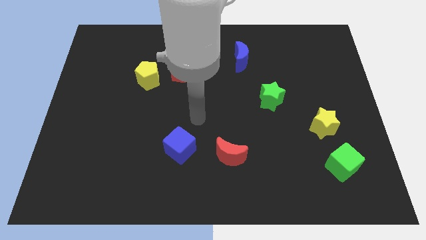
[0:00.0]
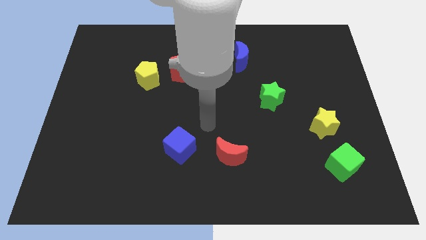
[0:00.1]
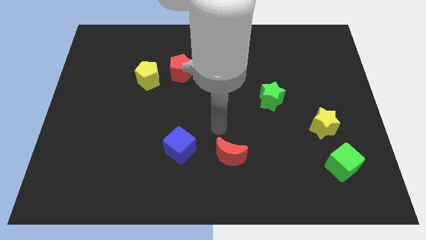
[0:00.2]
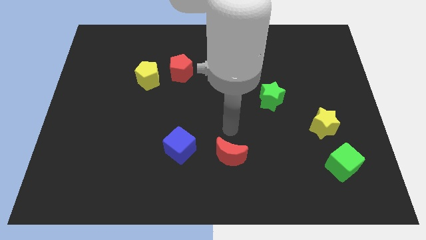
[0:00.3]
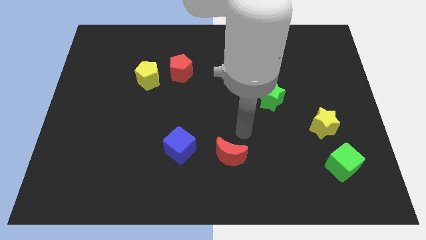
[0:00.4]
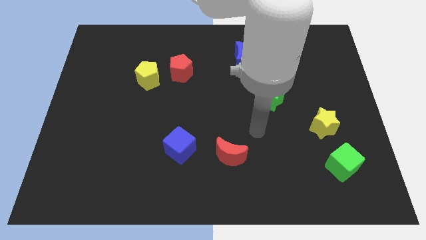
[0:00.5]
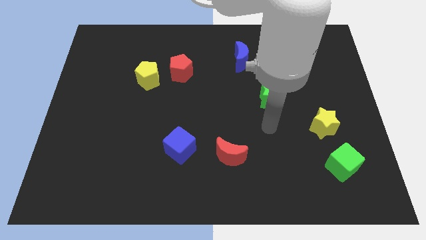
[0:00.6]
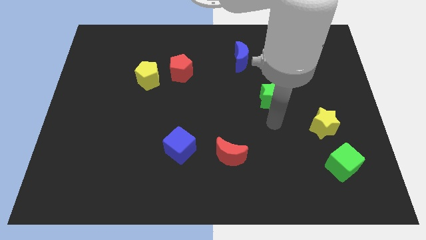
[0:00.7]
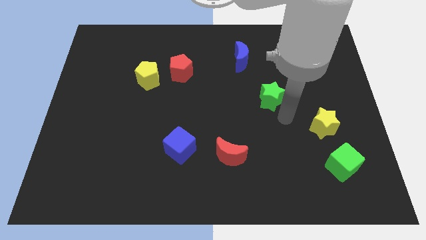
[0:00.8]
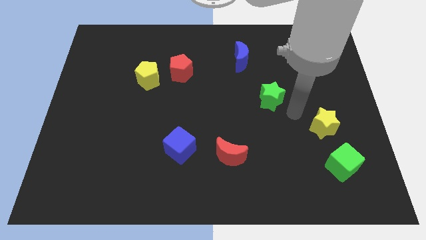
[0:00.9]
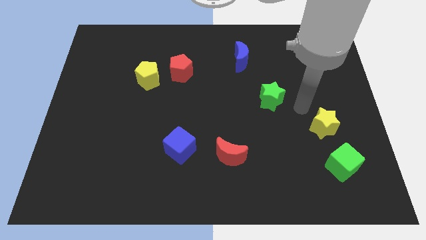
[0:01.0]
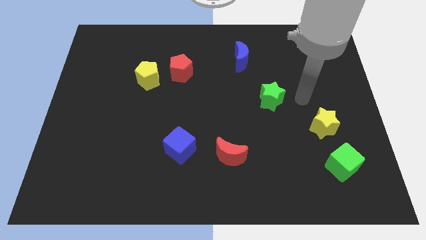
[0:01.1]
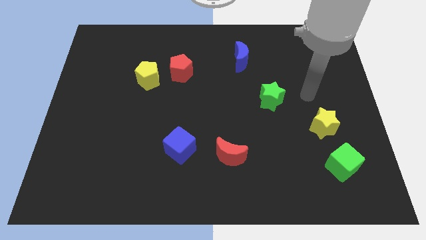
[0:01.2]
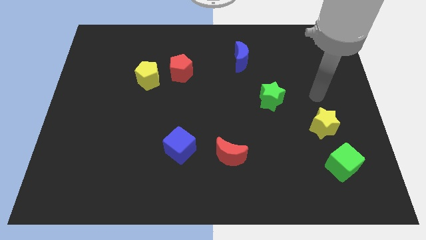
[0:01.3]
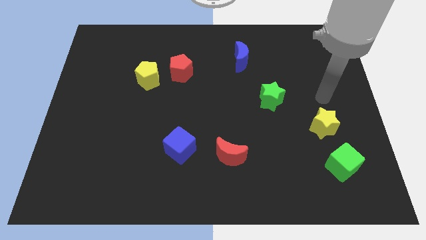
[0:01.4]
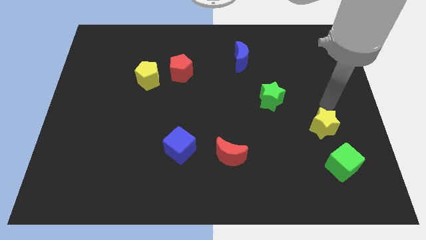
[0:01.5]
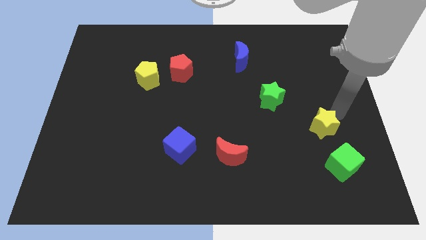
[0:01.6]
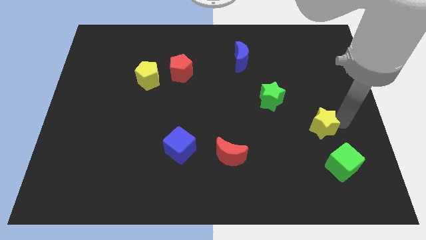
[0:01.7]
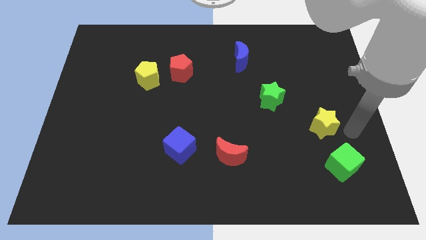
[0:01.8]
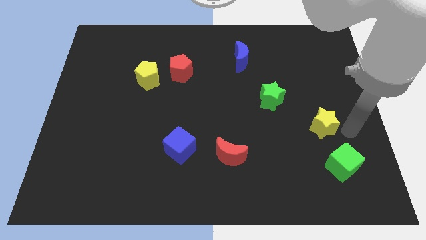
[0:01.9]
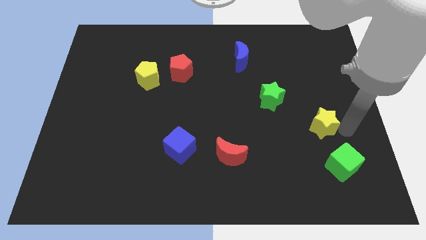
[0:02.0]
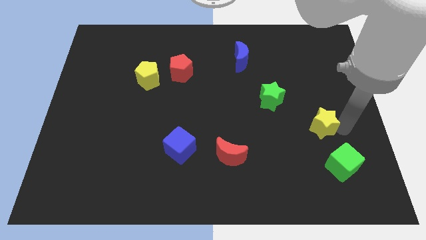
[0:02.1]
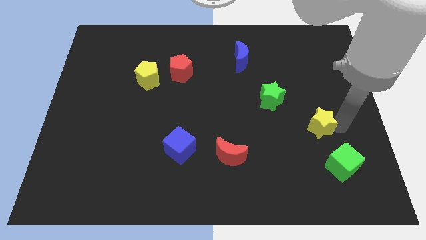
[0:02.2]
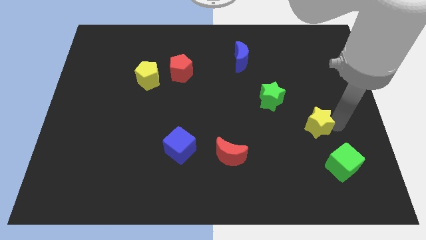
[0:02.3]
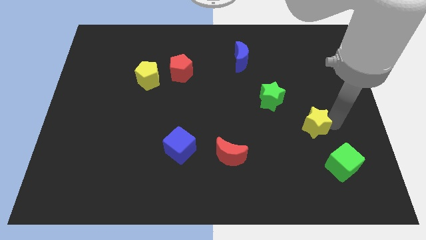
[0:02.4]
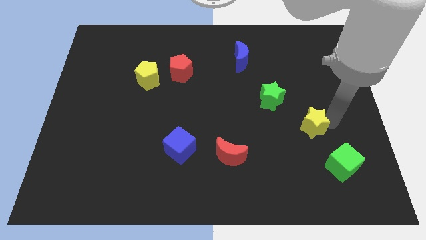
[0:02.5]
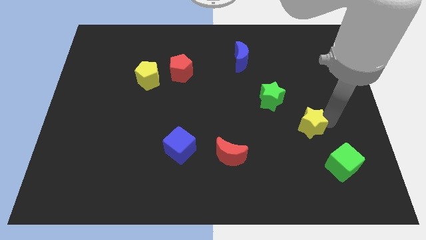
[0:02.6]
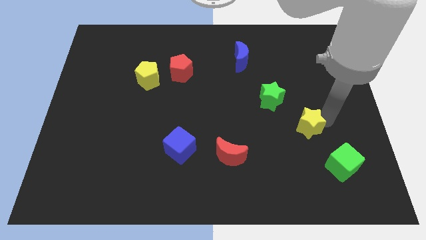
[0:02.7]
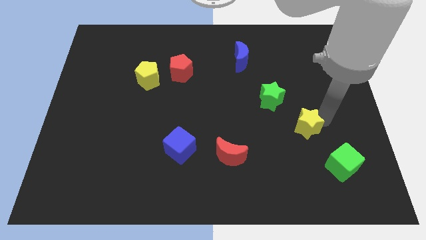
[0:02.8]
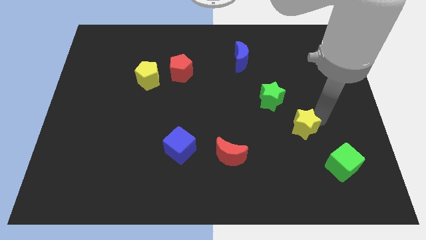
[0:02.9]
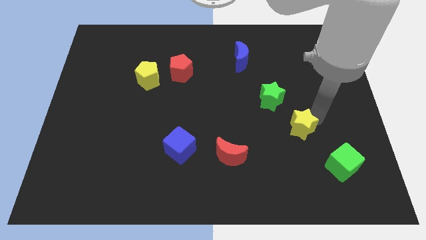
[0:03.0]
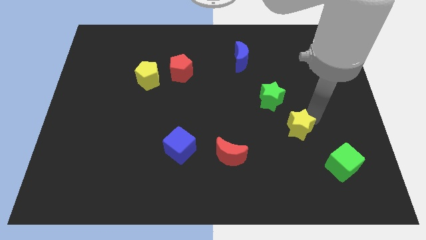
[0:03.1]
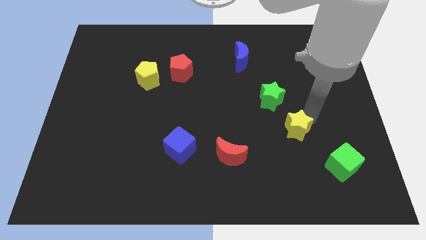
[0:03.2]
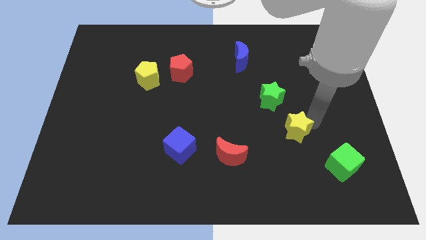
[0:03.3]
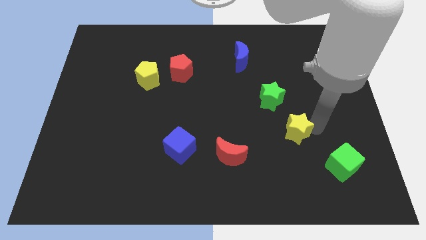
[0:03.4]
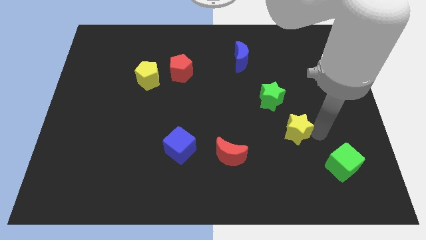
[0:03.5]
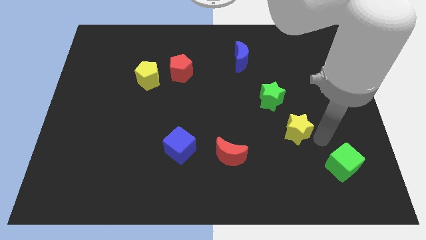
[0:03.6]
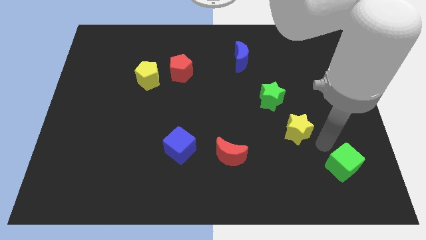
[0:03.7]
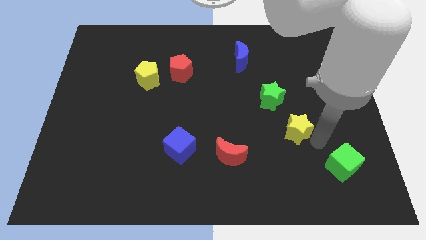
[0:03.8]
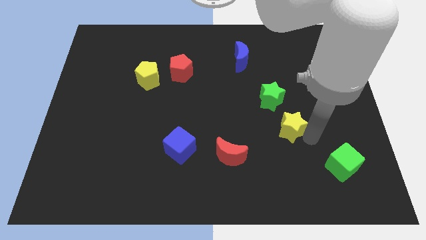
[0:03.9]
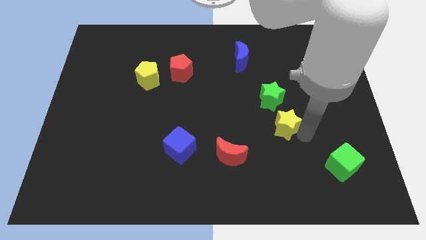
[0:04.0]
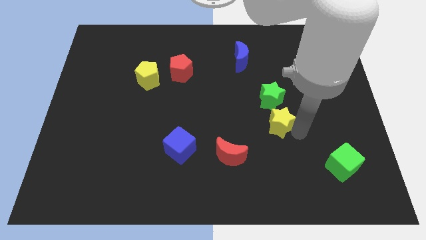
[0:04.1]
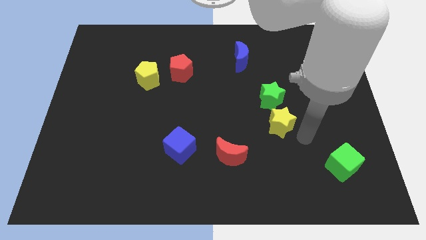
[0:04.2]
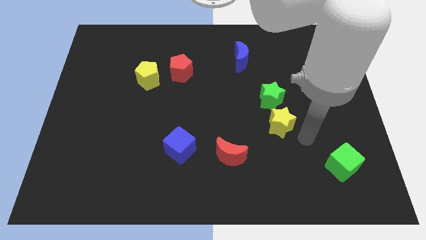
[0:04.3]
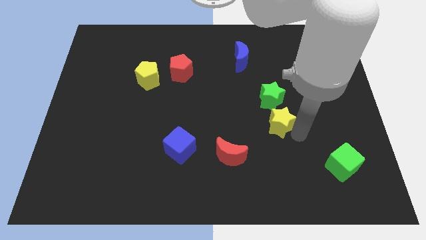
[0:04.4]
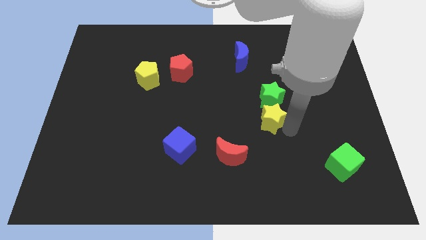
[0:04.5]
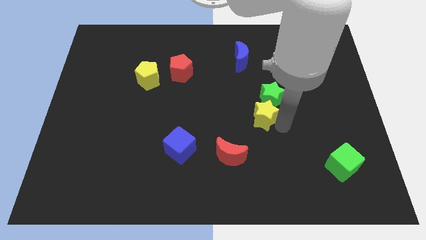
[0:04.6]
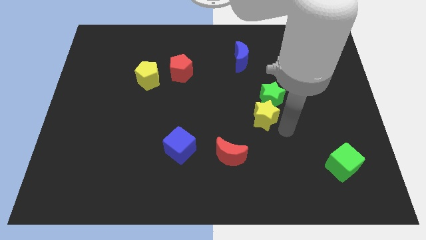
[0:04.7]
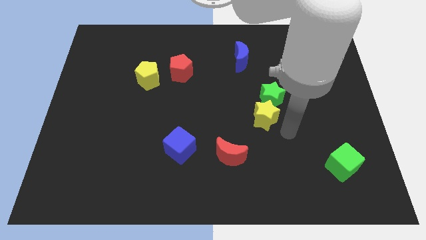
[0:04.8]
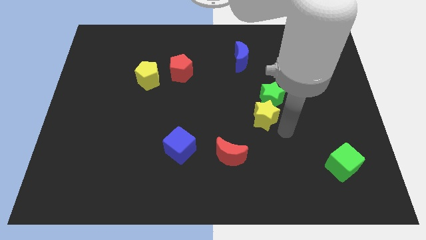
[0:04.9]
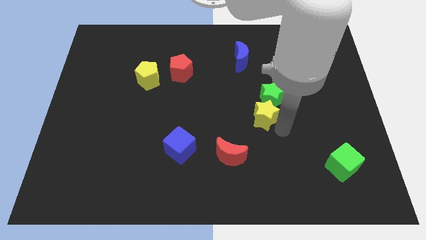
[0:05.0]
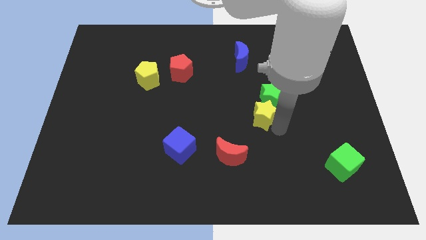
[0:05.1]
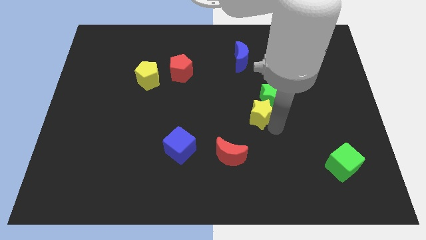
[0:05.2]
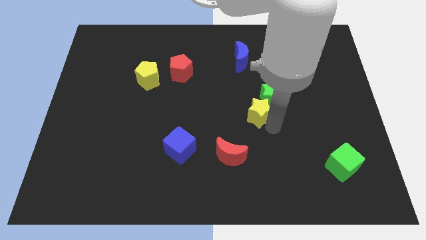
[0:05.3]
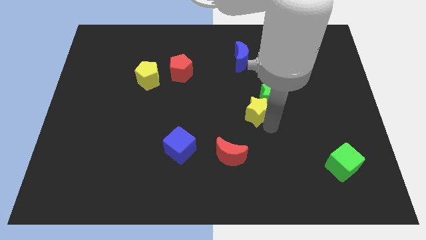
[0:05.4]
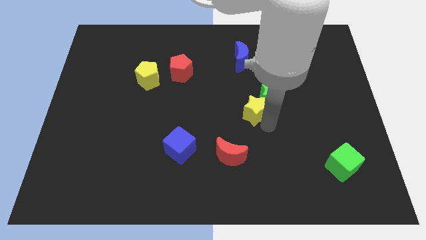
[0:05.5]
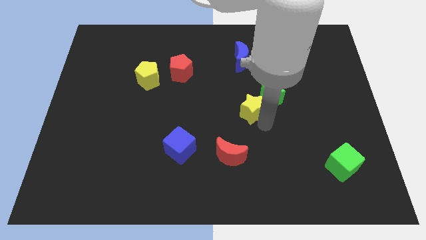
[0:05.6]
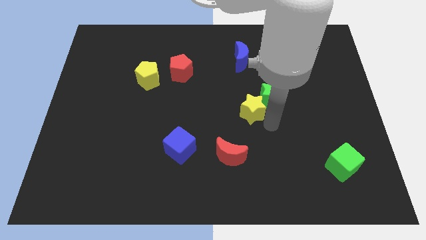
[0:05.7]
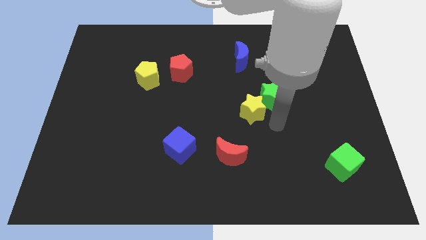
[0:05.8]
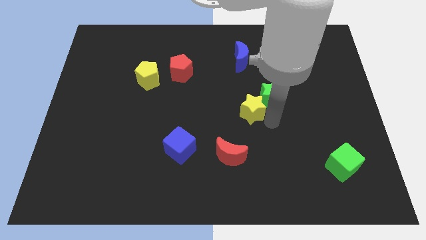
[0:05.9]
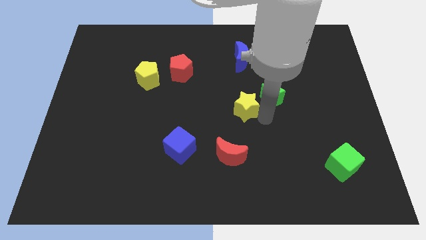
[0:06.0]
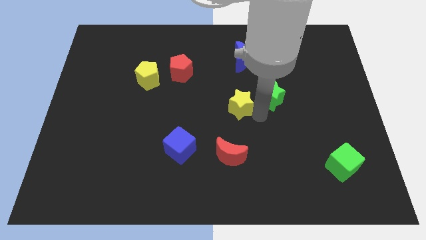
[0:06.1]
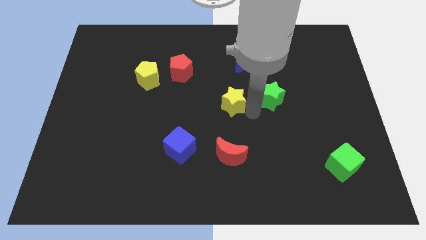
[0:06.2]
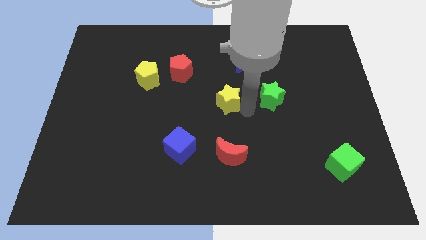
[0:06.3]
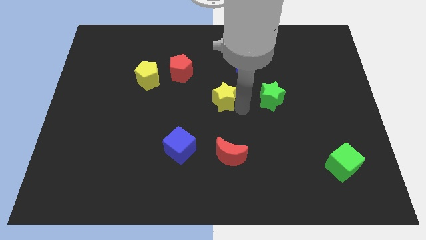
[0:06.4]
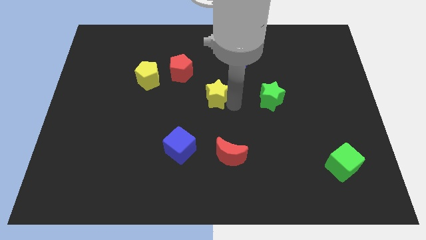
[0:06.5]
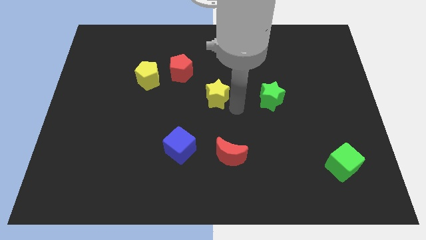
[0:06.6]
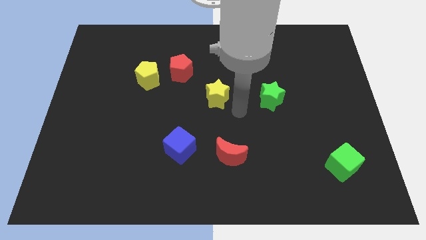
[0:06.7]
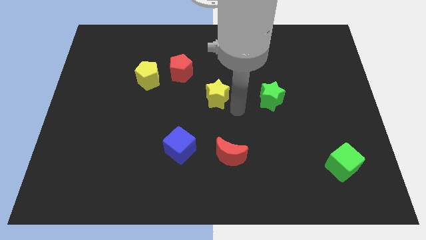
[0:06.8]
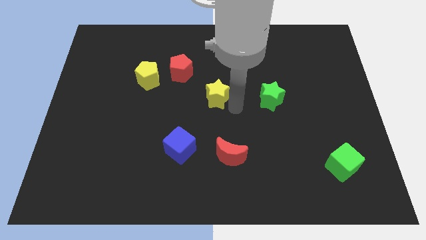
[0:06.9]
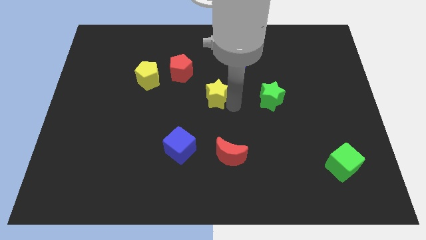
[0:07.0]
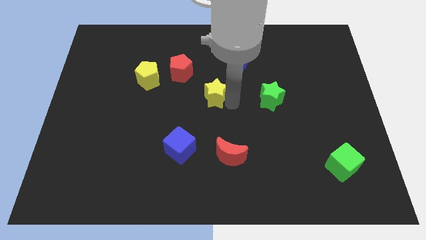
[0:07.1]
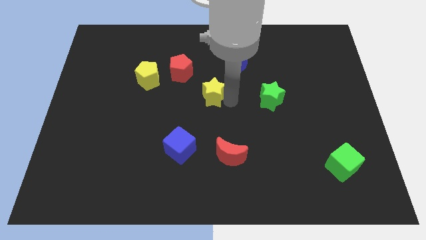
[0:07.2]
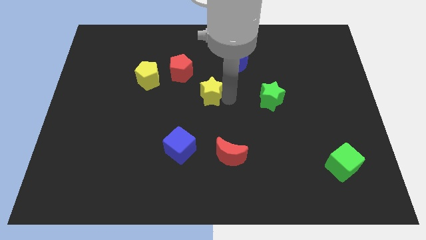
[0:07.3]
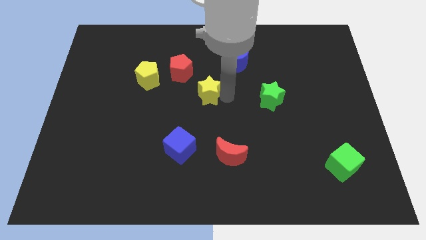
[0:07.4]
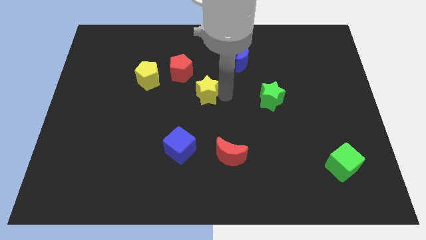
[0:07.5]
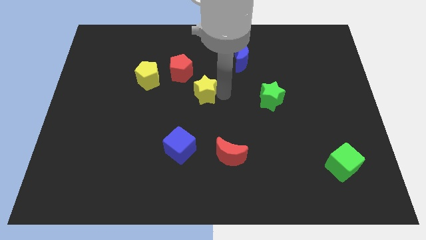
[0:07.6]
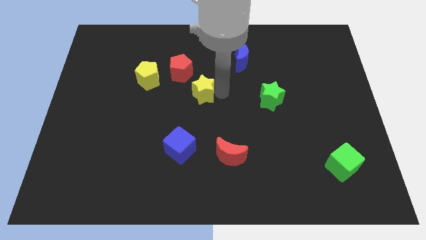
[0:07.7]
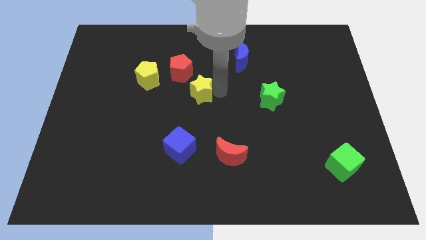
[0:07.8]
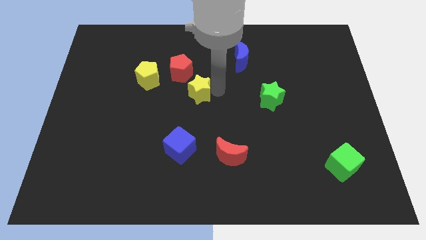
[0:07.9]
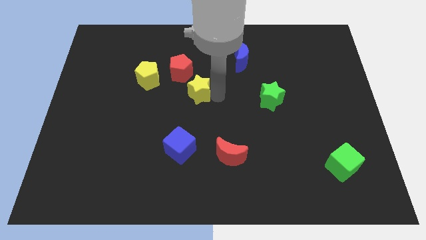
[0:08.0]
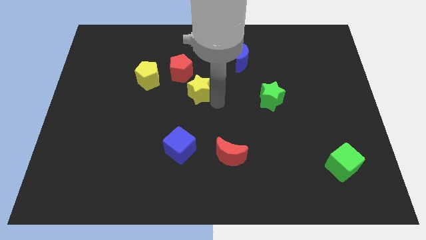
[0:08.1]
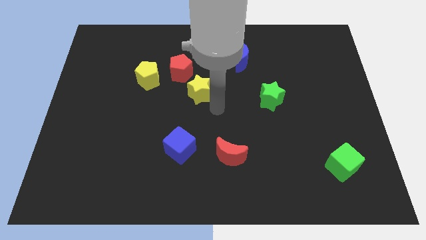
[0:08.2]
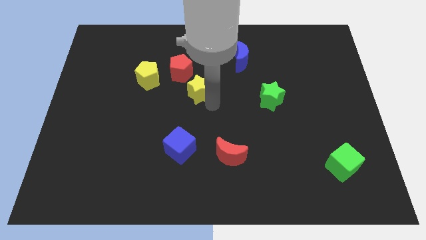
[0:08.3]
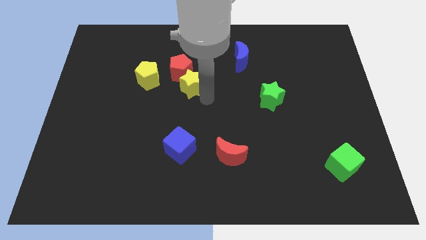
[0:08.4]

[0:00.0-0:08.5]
push the yellow star close to the red pentagon
